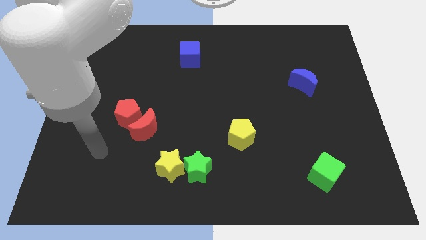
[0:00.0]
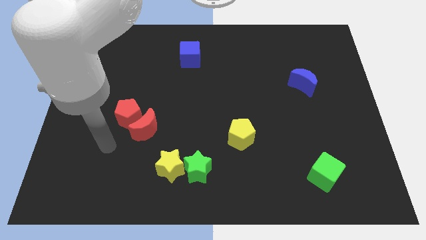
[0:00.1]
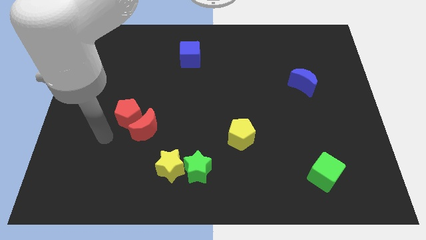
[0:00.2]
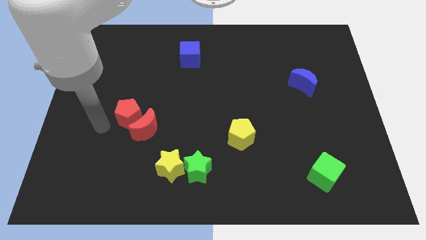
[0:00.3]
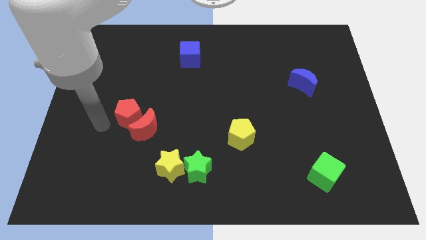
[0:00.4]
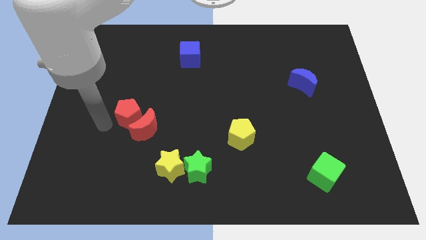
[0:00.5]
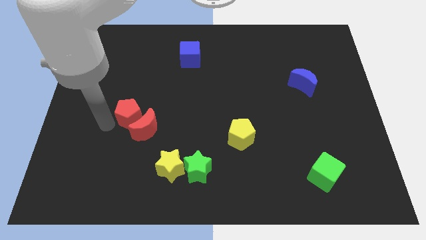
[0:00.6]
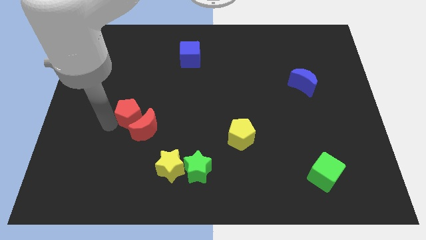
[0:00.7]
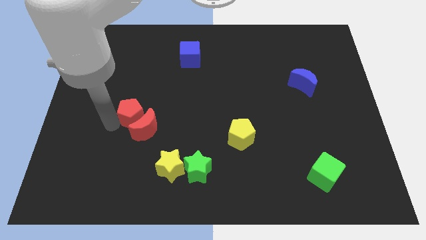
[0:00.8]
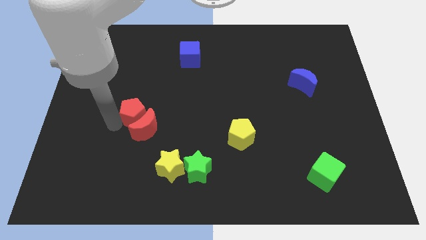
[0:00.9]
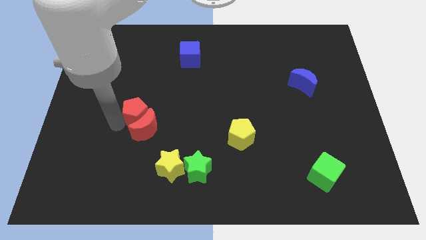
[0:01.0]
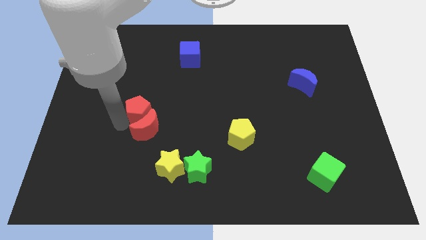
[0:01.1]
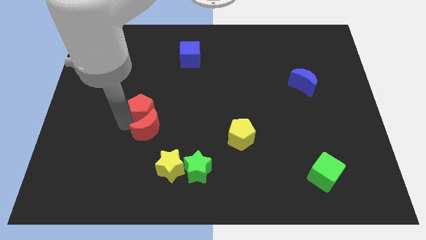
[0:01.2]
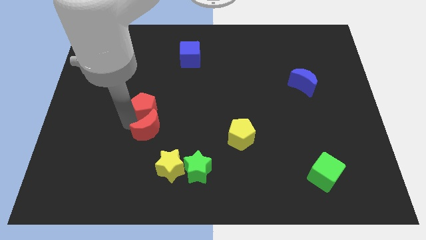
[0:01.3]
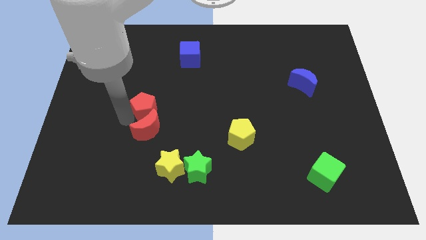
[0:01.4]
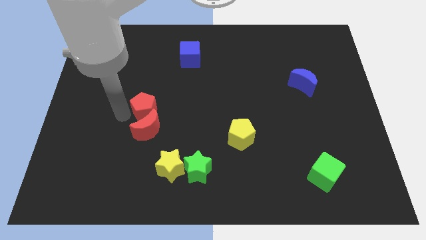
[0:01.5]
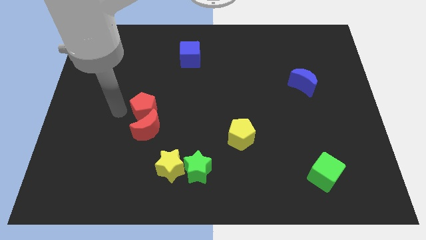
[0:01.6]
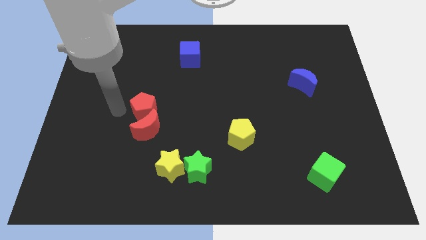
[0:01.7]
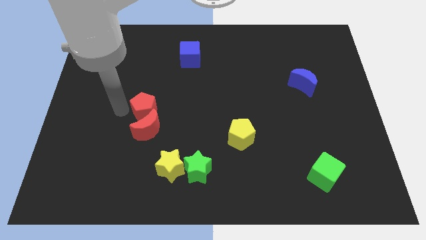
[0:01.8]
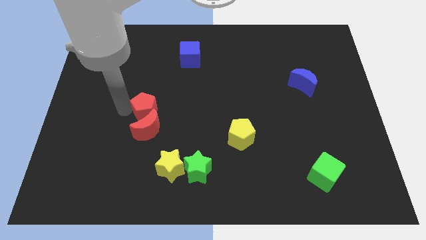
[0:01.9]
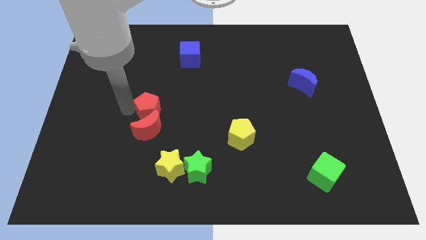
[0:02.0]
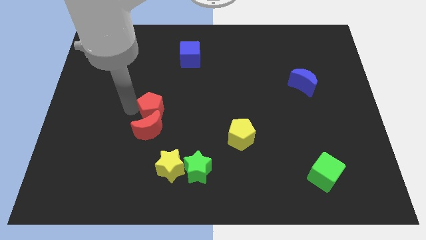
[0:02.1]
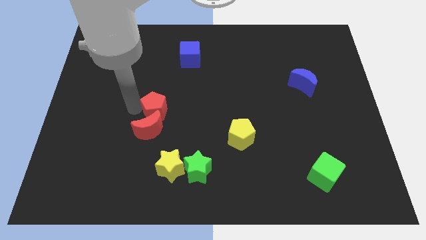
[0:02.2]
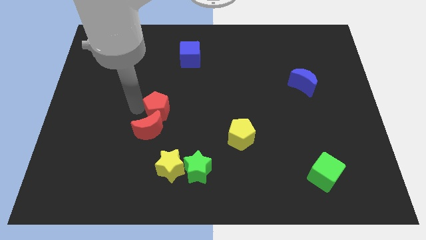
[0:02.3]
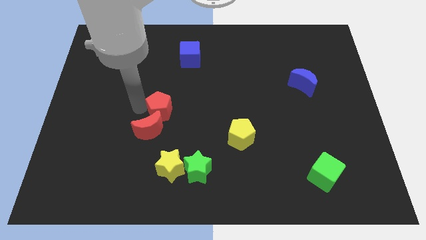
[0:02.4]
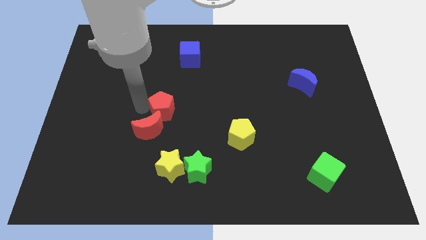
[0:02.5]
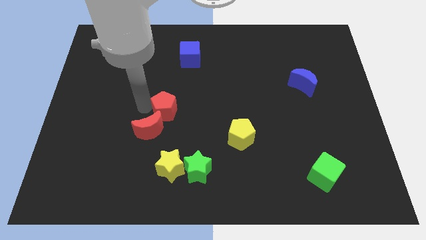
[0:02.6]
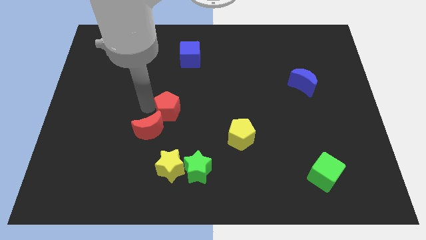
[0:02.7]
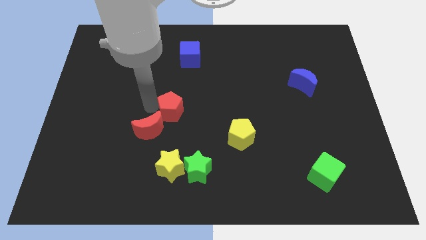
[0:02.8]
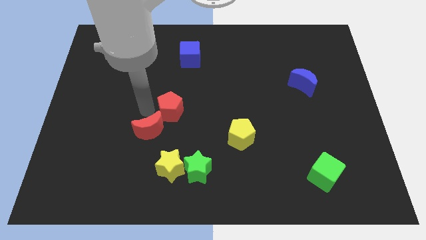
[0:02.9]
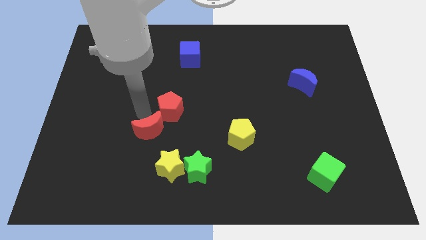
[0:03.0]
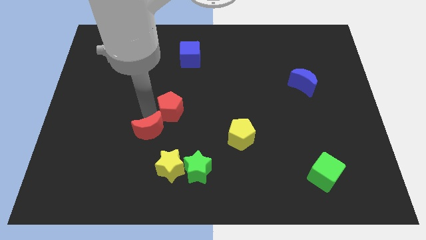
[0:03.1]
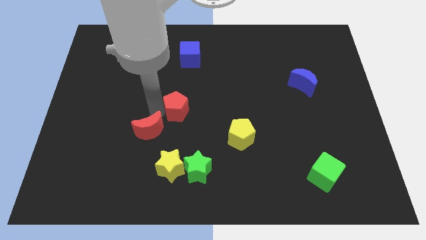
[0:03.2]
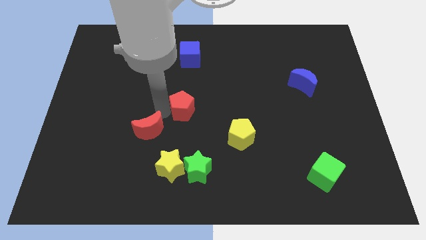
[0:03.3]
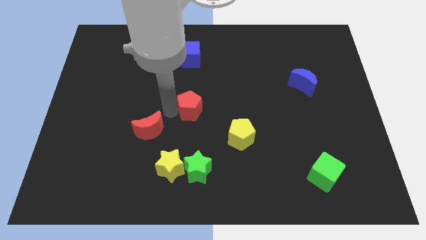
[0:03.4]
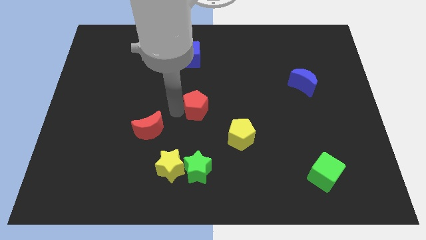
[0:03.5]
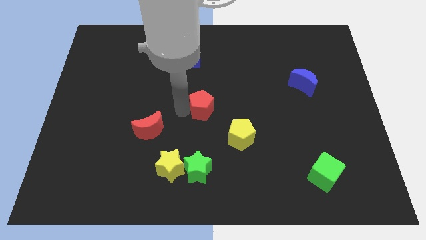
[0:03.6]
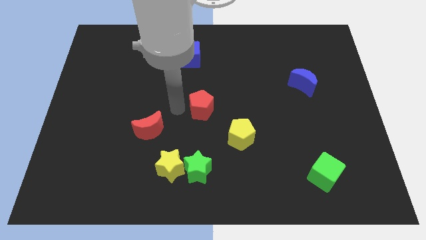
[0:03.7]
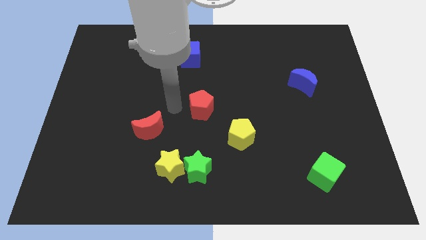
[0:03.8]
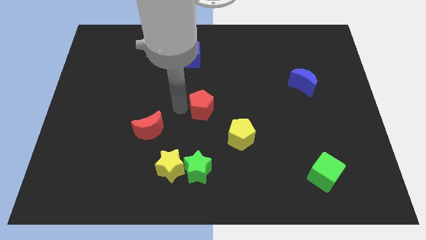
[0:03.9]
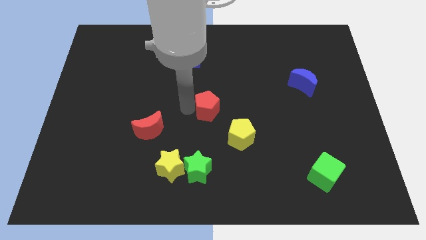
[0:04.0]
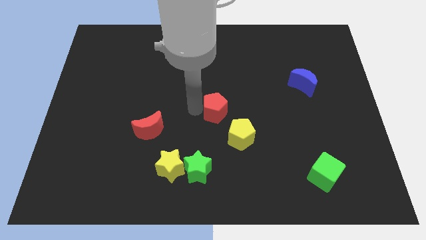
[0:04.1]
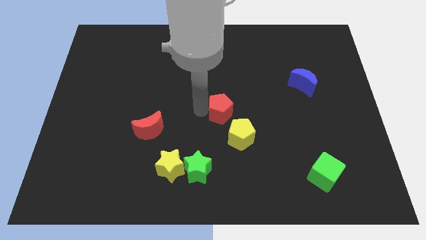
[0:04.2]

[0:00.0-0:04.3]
slide the red pentagon to the right

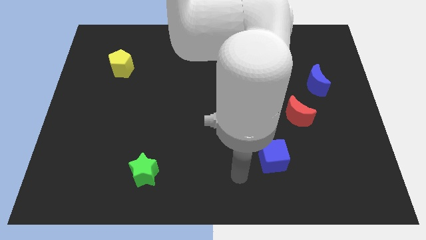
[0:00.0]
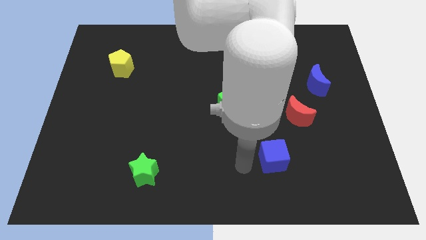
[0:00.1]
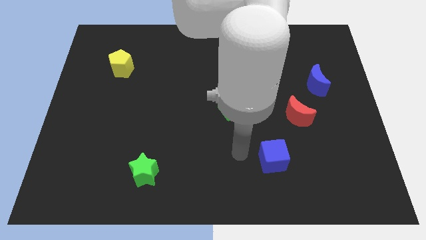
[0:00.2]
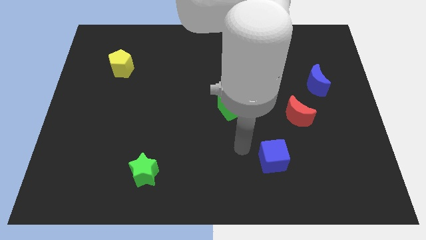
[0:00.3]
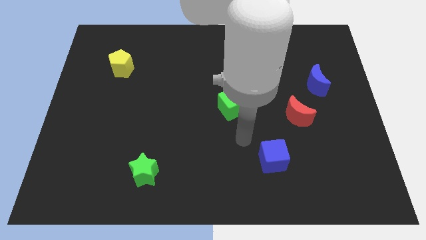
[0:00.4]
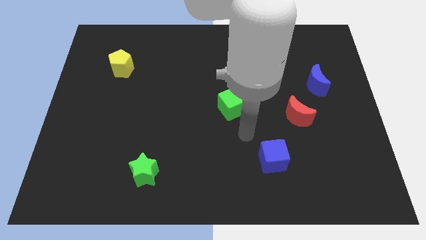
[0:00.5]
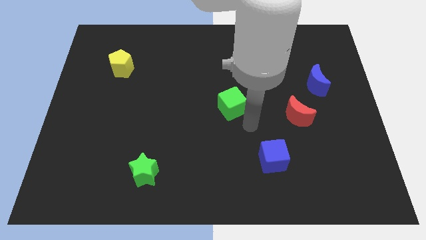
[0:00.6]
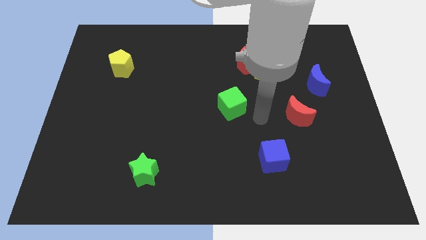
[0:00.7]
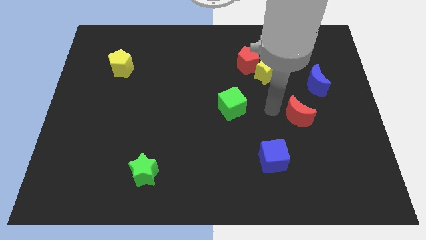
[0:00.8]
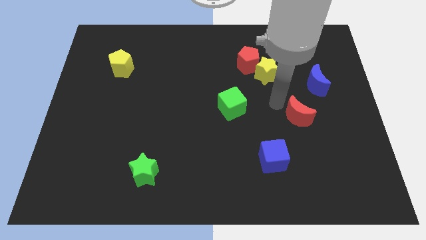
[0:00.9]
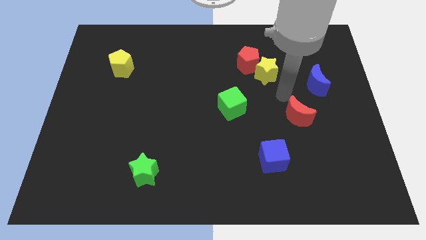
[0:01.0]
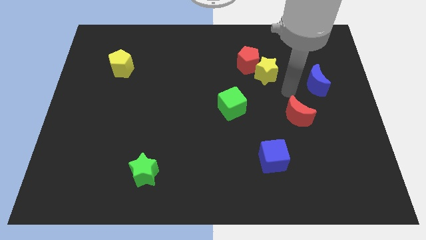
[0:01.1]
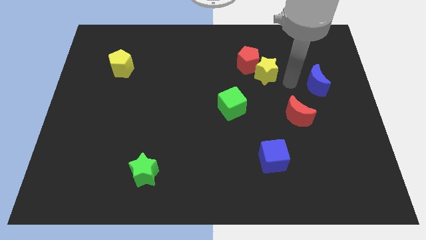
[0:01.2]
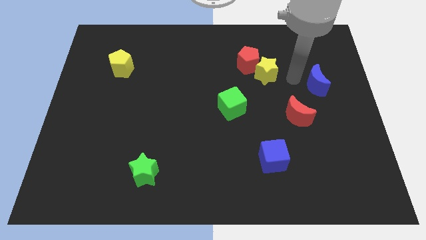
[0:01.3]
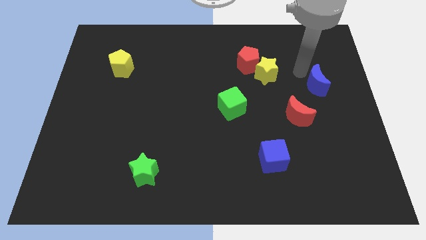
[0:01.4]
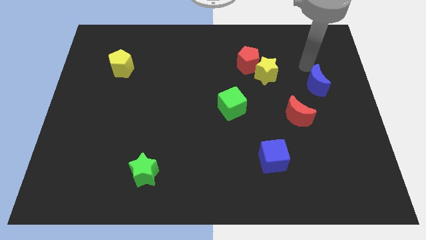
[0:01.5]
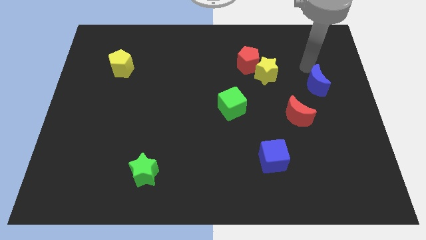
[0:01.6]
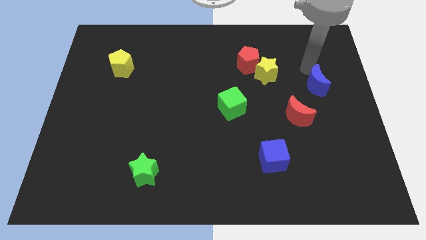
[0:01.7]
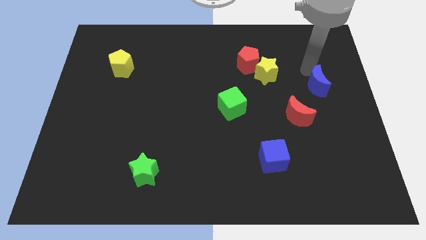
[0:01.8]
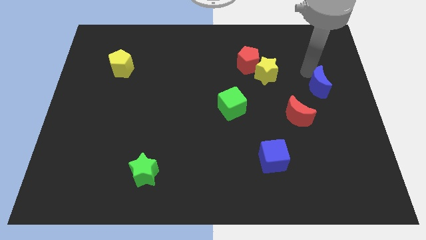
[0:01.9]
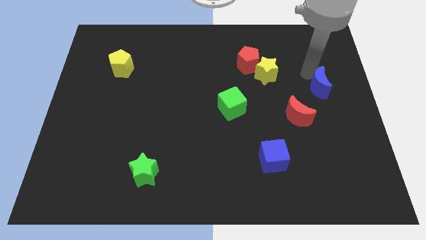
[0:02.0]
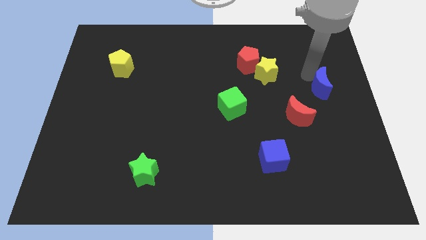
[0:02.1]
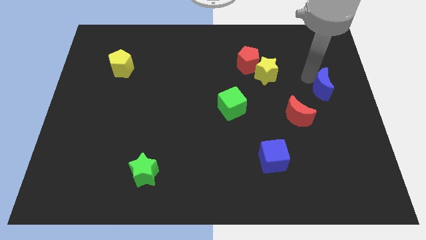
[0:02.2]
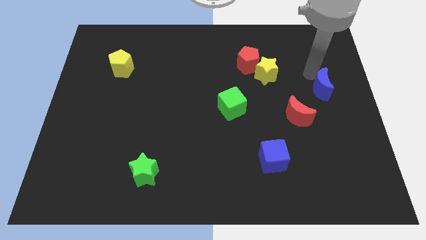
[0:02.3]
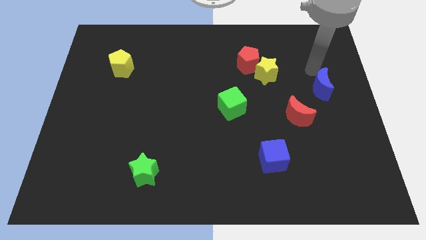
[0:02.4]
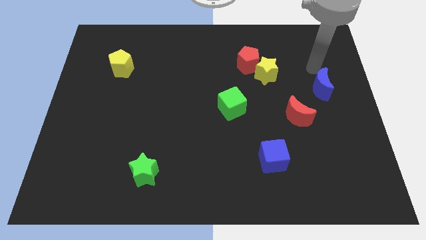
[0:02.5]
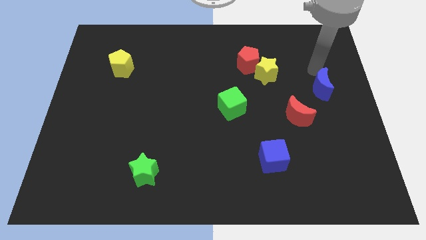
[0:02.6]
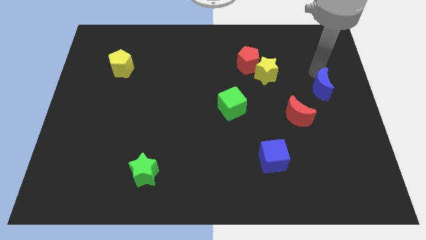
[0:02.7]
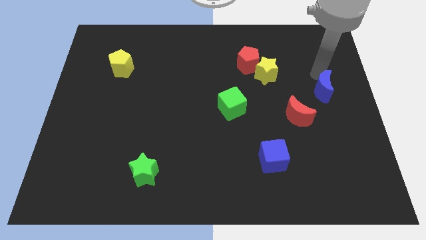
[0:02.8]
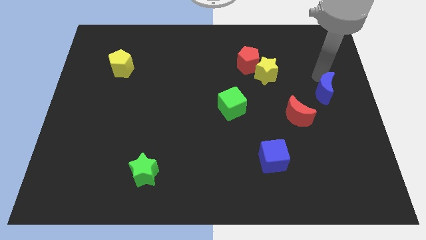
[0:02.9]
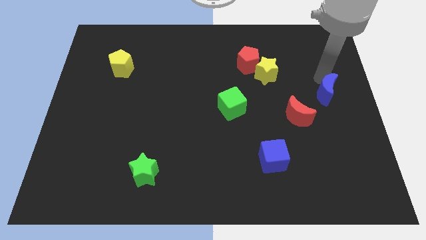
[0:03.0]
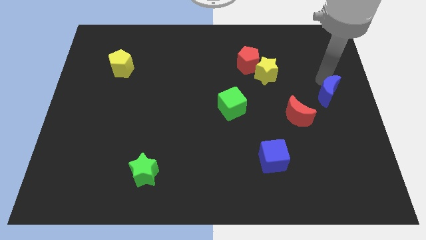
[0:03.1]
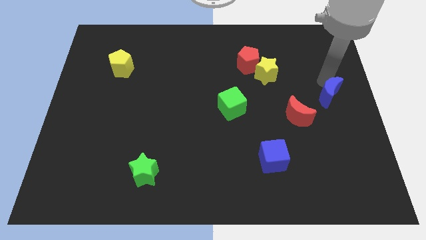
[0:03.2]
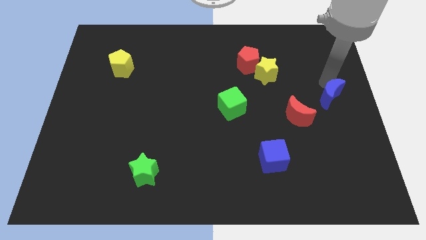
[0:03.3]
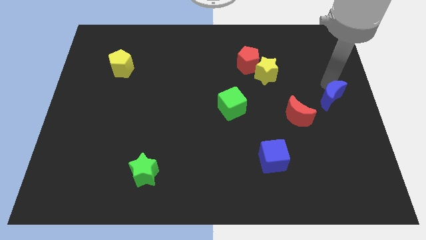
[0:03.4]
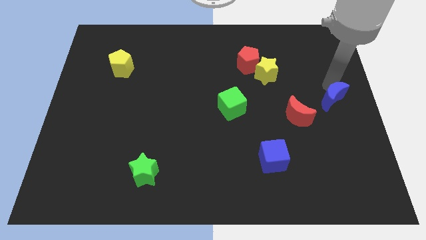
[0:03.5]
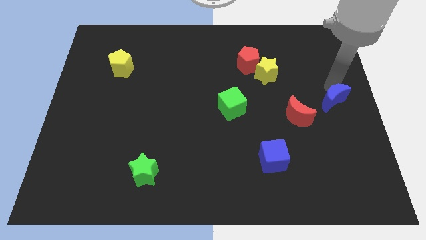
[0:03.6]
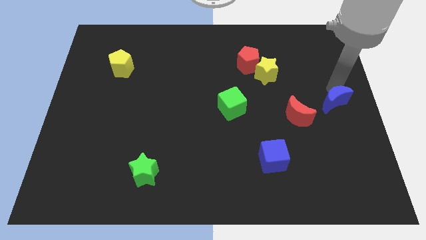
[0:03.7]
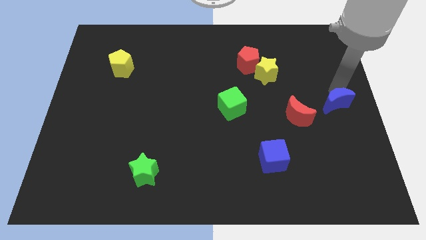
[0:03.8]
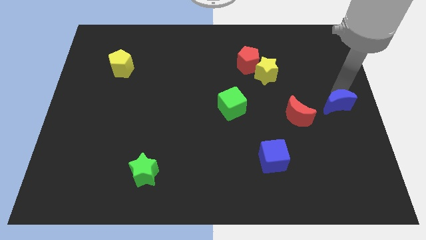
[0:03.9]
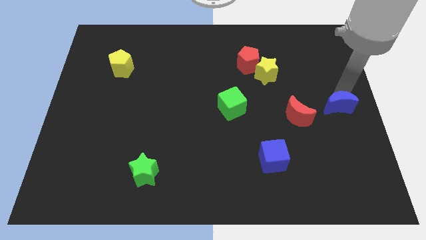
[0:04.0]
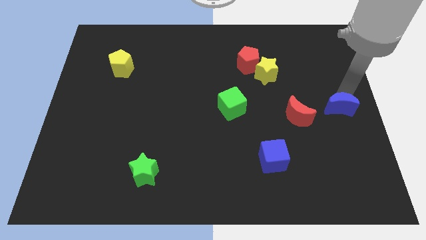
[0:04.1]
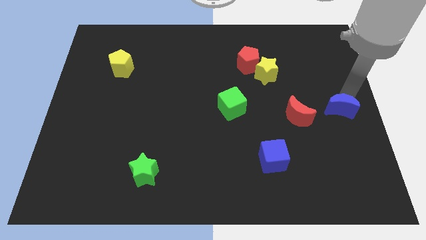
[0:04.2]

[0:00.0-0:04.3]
push the blue moon somewhat down
